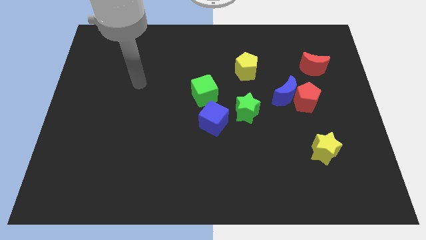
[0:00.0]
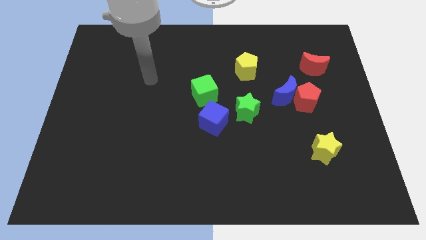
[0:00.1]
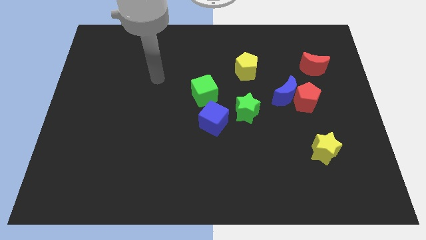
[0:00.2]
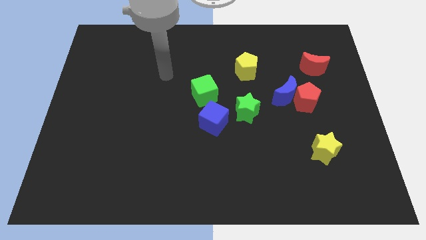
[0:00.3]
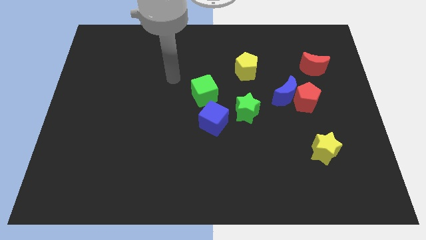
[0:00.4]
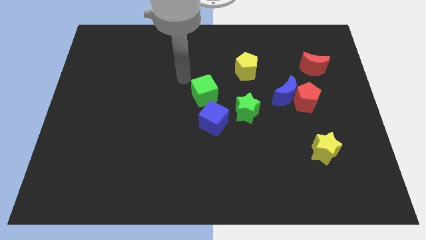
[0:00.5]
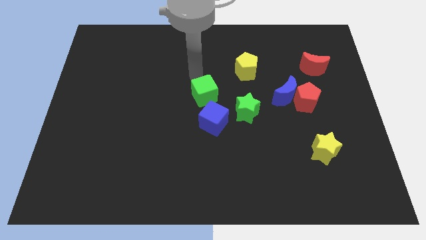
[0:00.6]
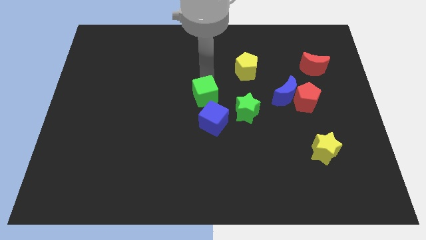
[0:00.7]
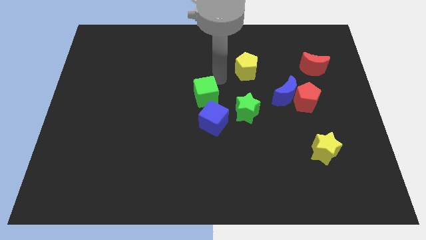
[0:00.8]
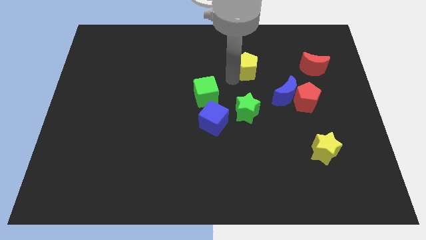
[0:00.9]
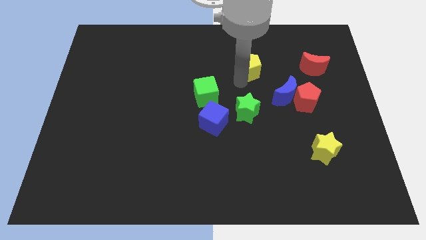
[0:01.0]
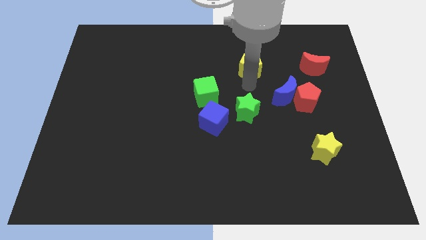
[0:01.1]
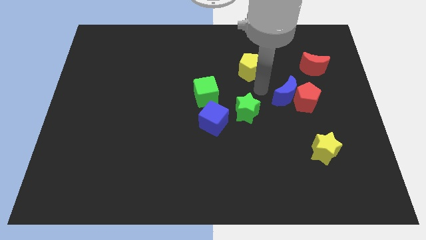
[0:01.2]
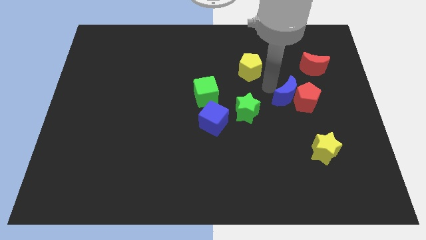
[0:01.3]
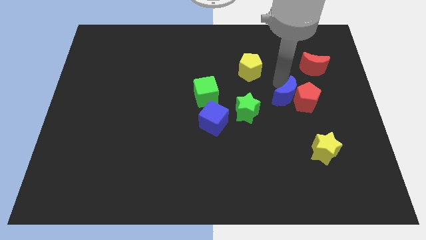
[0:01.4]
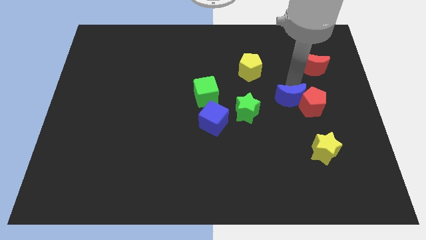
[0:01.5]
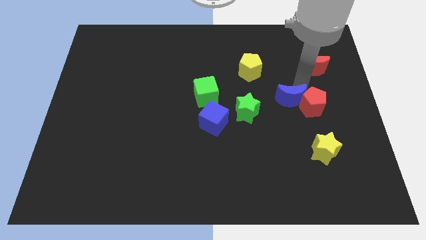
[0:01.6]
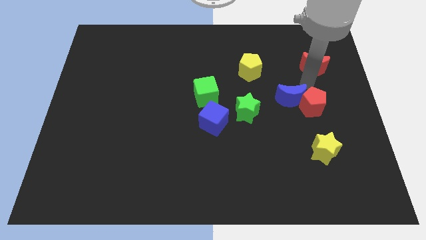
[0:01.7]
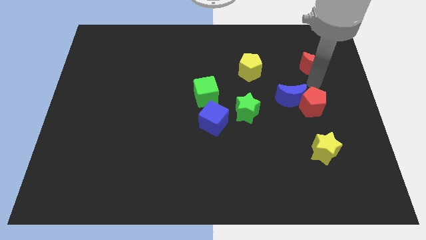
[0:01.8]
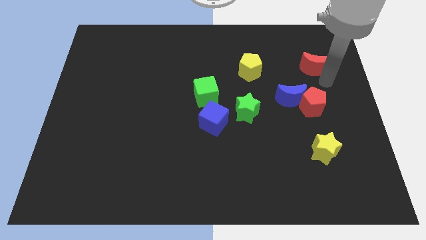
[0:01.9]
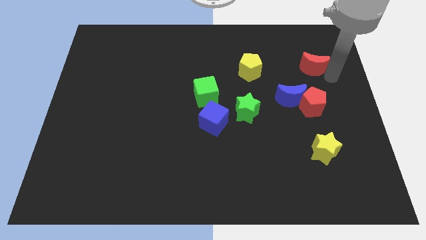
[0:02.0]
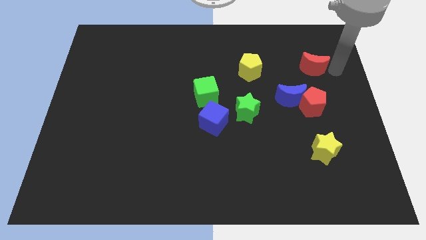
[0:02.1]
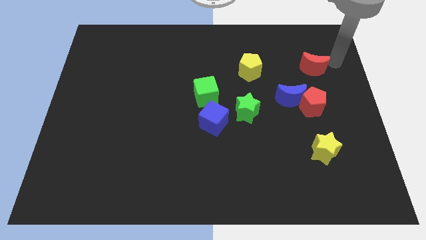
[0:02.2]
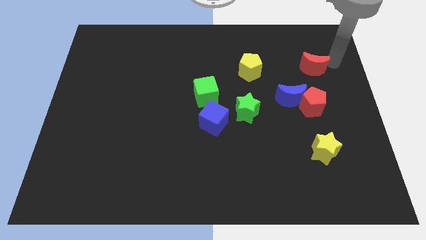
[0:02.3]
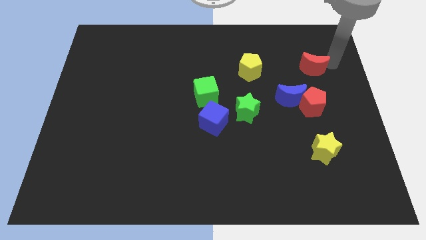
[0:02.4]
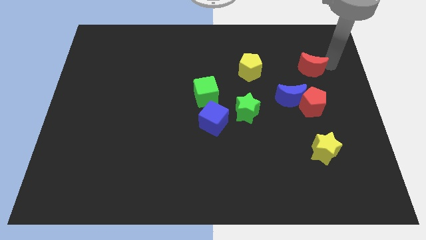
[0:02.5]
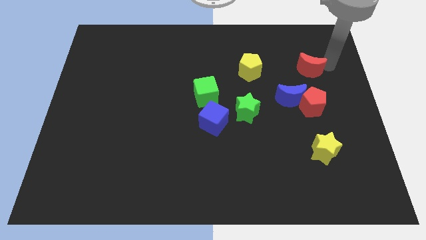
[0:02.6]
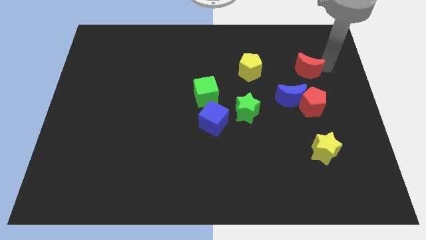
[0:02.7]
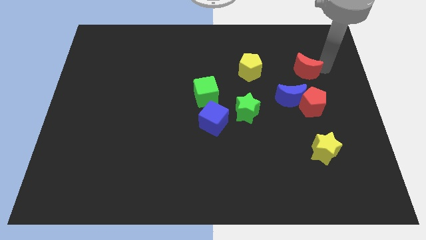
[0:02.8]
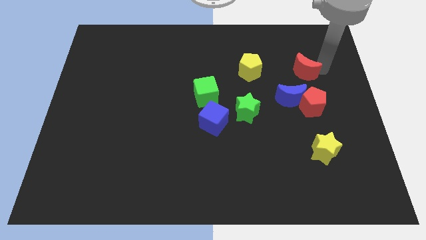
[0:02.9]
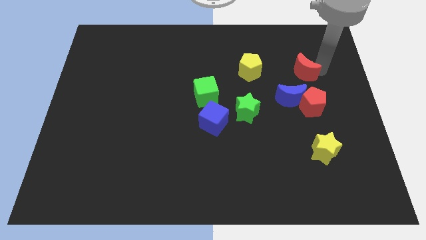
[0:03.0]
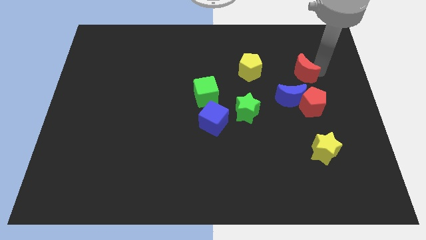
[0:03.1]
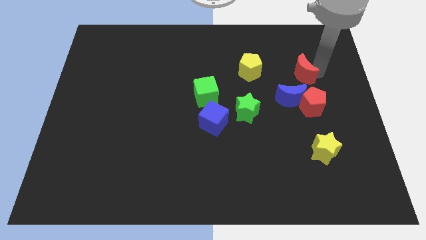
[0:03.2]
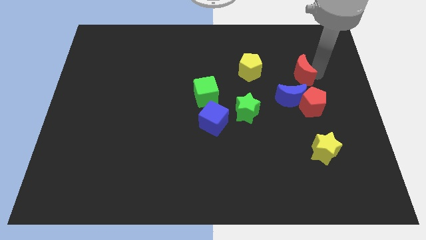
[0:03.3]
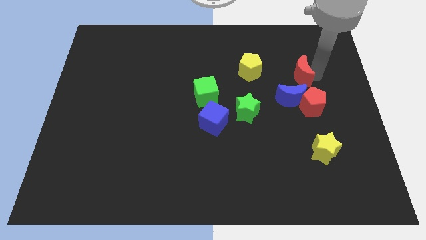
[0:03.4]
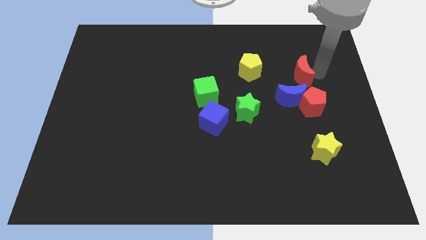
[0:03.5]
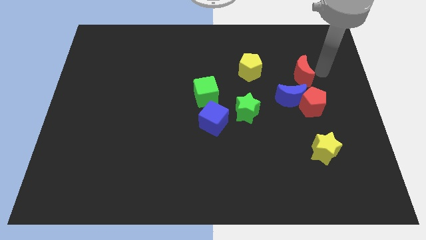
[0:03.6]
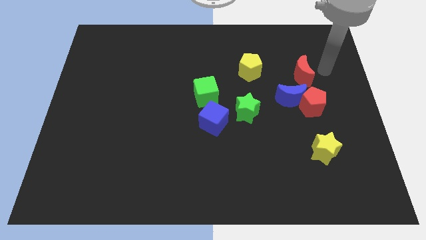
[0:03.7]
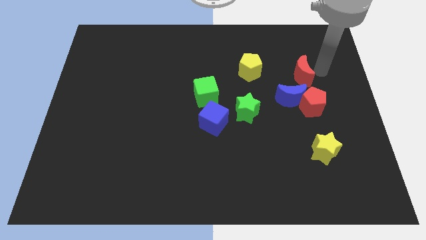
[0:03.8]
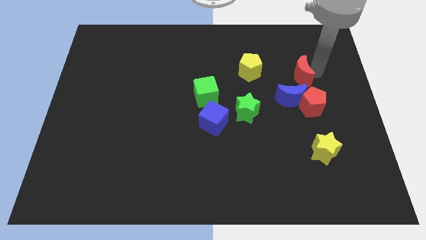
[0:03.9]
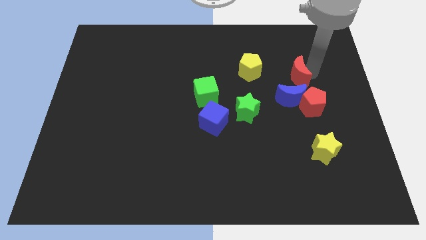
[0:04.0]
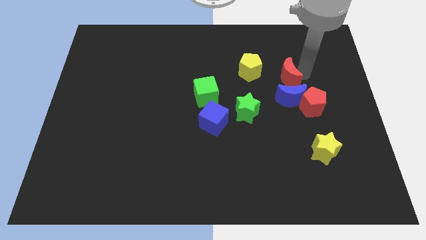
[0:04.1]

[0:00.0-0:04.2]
slightly push the red moon down and left

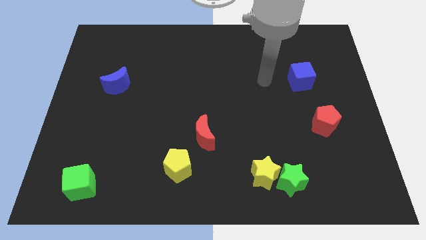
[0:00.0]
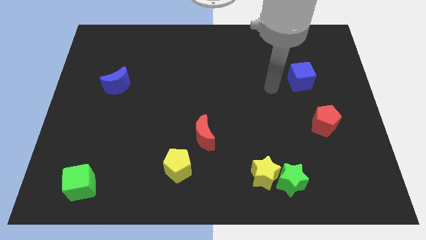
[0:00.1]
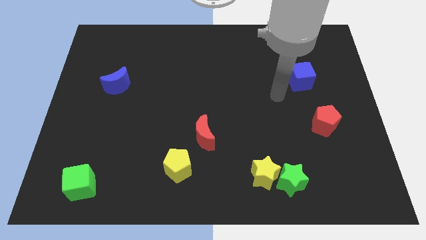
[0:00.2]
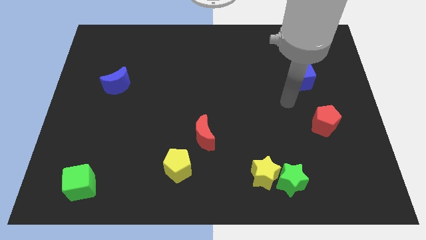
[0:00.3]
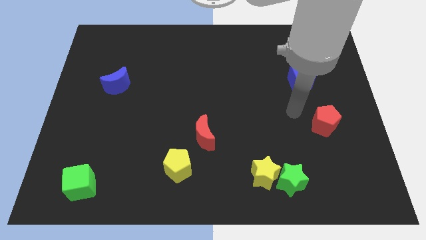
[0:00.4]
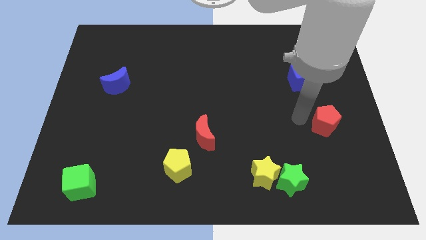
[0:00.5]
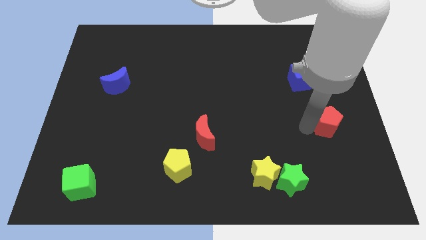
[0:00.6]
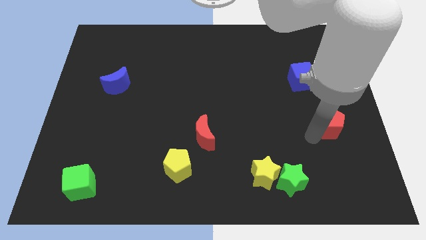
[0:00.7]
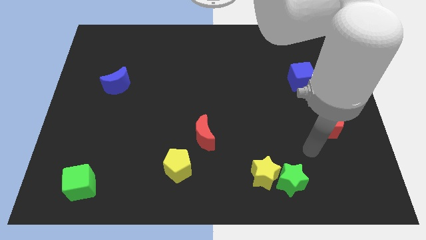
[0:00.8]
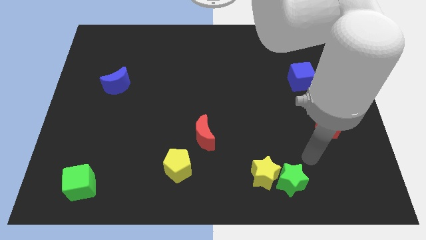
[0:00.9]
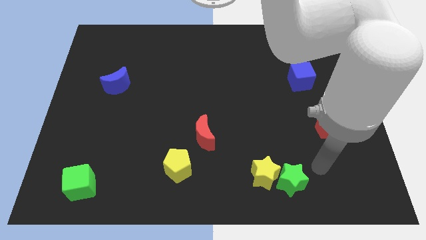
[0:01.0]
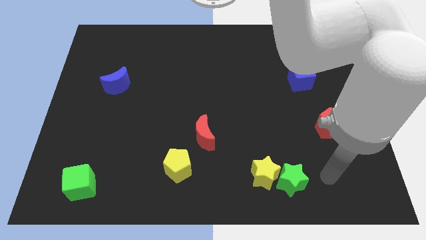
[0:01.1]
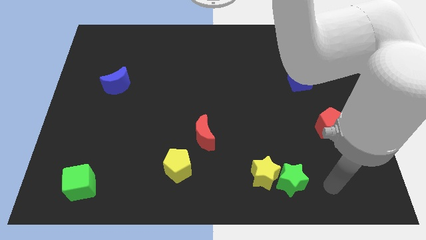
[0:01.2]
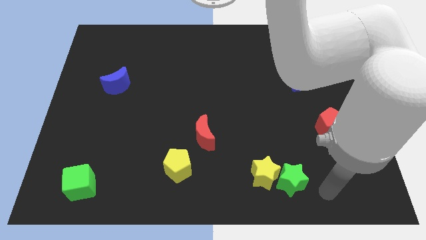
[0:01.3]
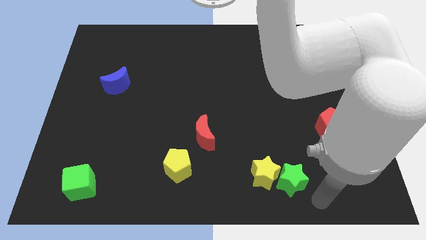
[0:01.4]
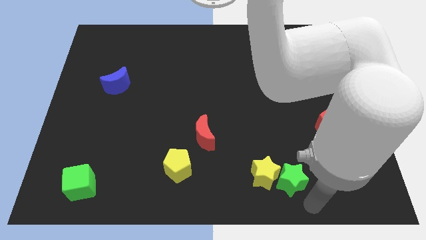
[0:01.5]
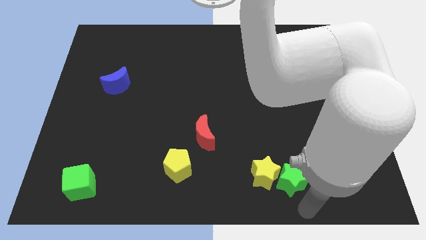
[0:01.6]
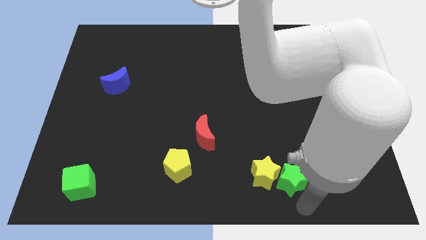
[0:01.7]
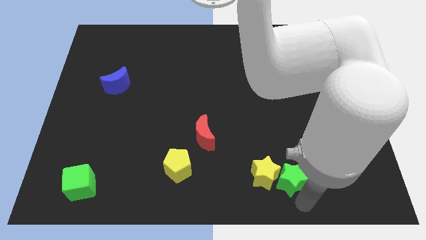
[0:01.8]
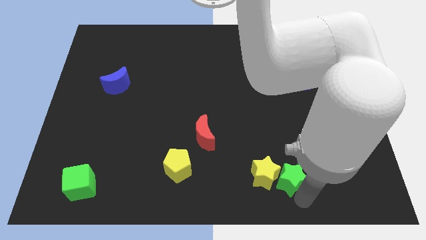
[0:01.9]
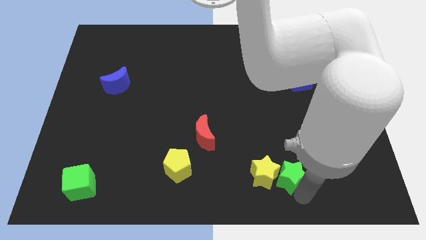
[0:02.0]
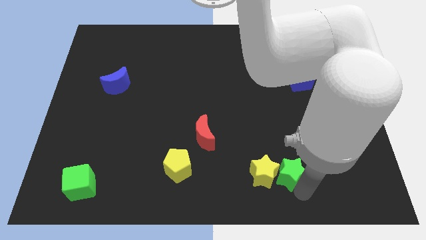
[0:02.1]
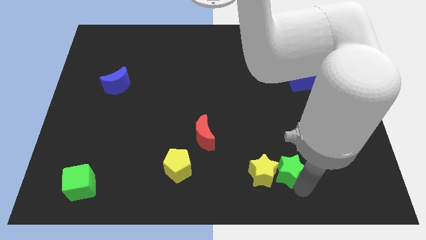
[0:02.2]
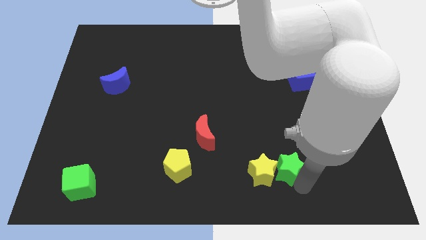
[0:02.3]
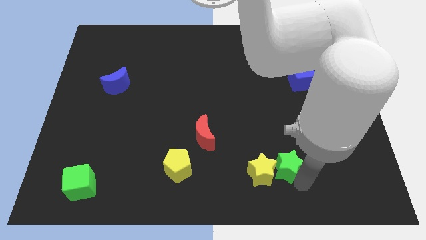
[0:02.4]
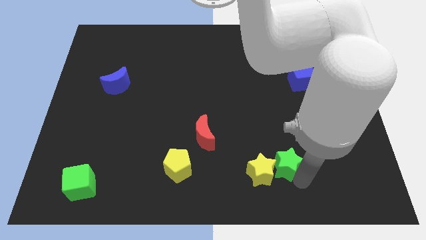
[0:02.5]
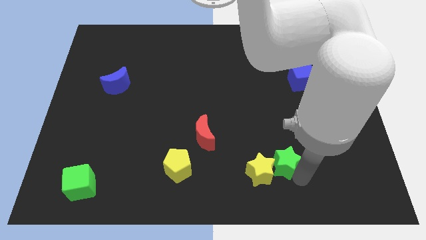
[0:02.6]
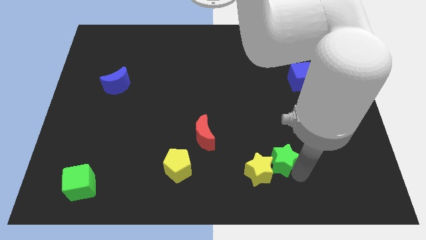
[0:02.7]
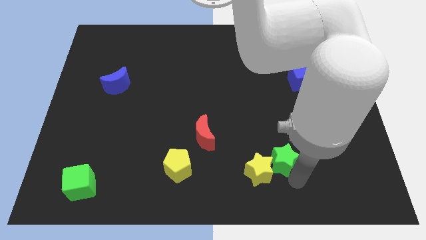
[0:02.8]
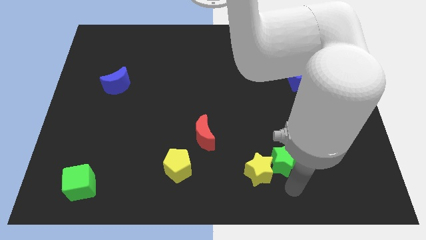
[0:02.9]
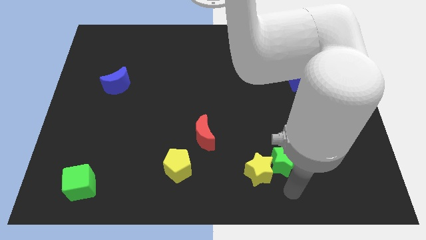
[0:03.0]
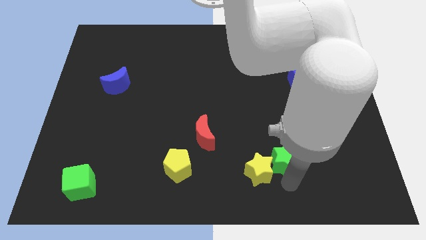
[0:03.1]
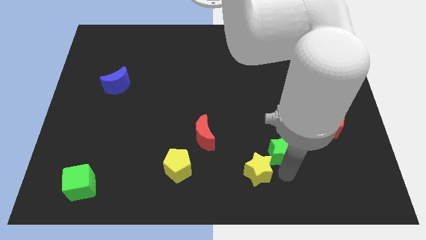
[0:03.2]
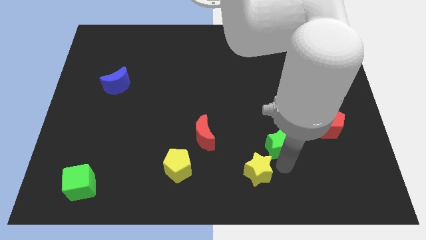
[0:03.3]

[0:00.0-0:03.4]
push the green star a little upwards

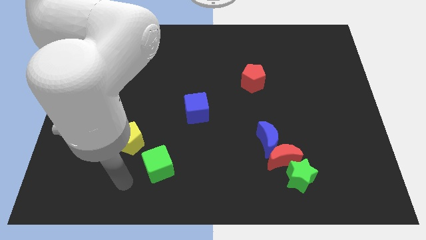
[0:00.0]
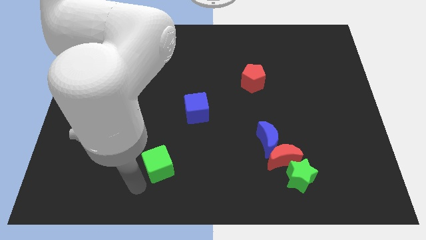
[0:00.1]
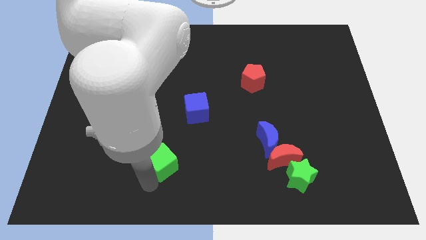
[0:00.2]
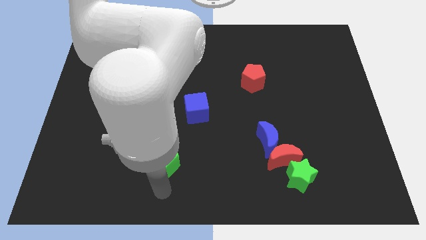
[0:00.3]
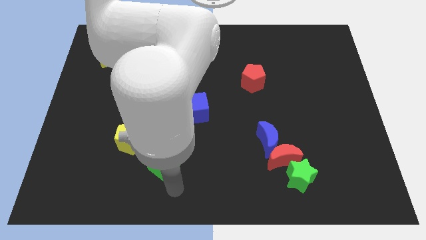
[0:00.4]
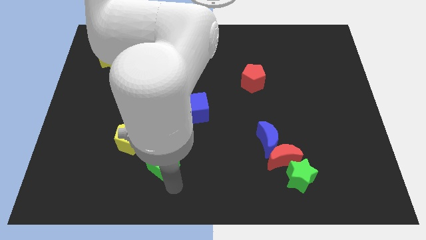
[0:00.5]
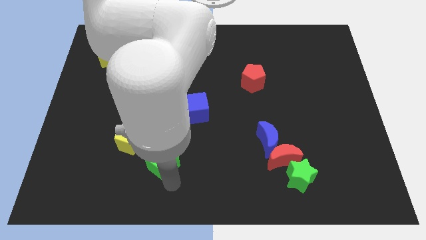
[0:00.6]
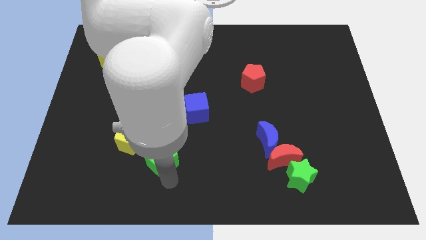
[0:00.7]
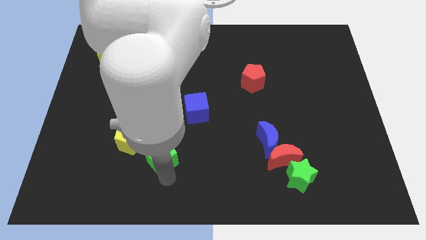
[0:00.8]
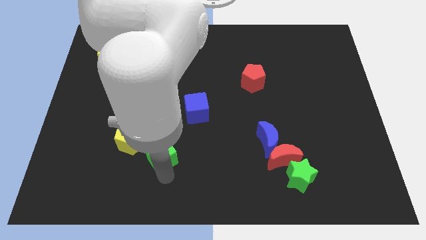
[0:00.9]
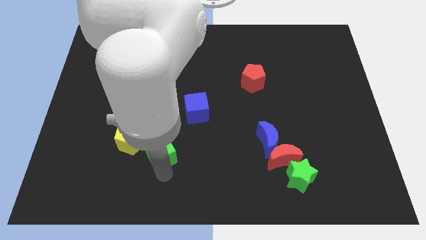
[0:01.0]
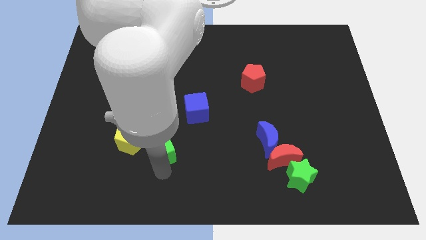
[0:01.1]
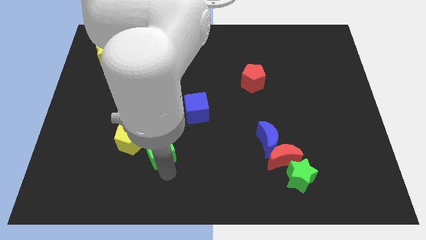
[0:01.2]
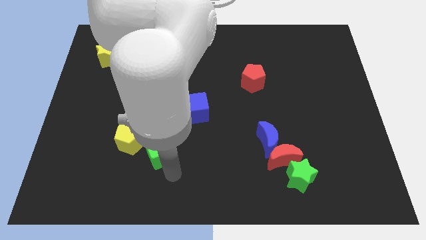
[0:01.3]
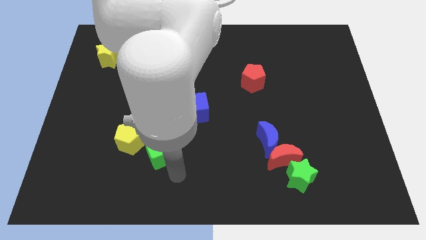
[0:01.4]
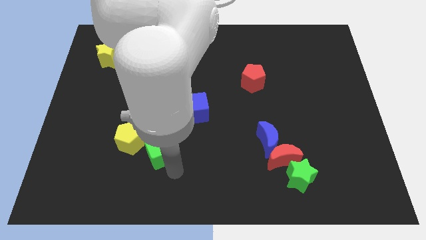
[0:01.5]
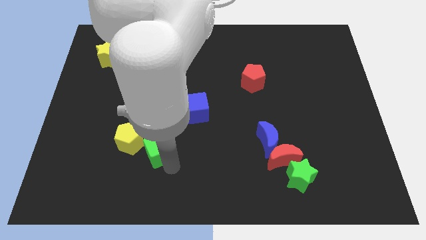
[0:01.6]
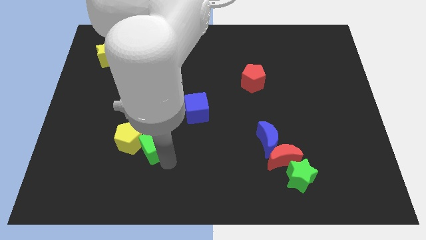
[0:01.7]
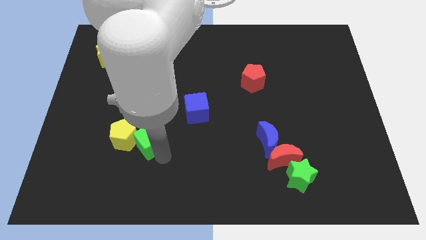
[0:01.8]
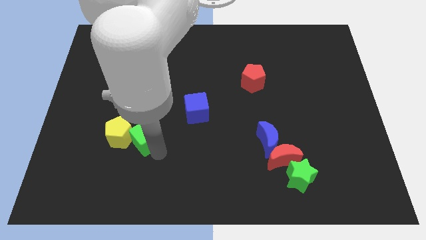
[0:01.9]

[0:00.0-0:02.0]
slide the green cube up and then to the left a bit
